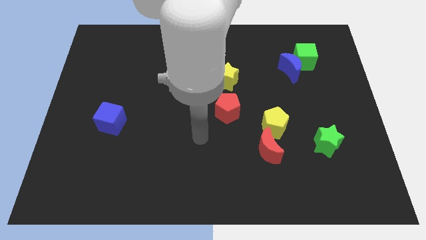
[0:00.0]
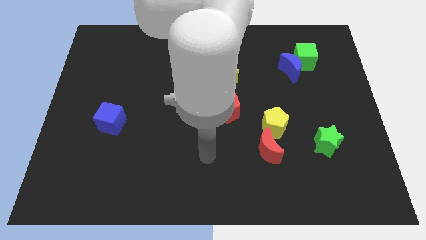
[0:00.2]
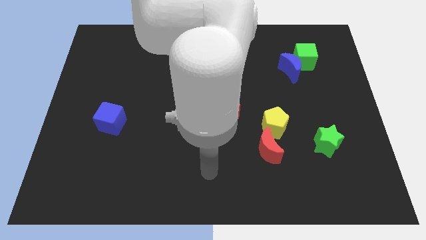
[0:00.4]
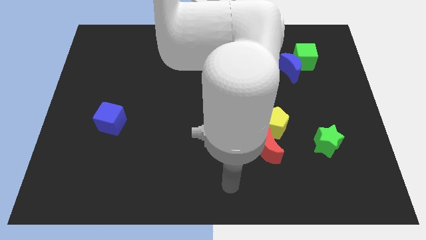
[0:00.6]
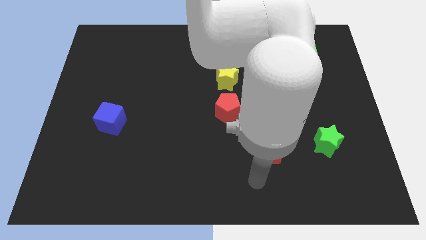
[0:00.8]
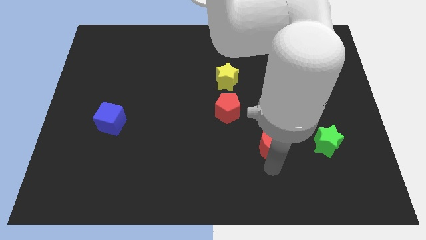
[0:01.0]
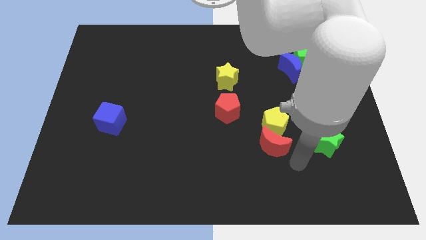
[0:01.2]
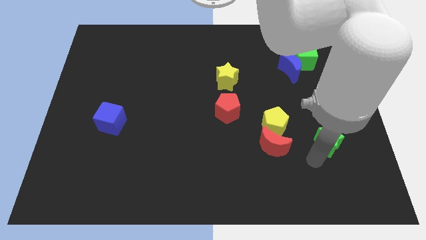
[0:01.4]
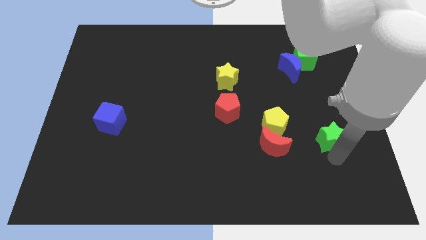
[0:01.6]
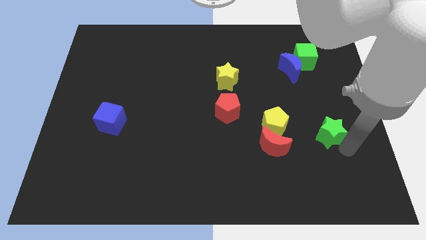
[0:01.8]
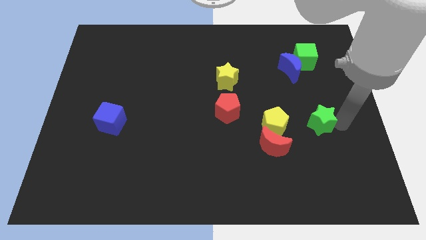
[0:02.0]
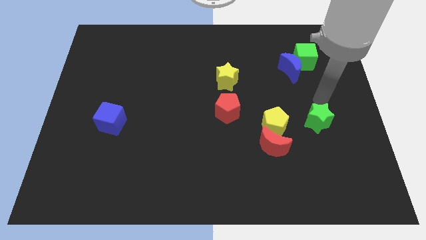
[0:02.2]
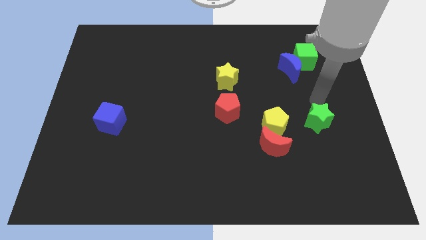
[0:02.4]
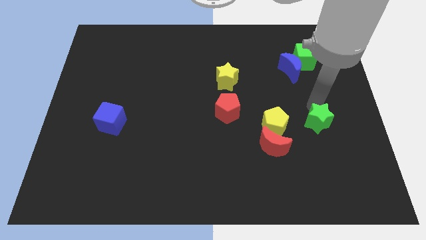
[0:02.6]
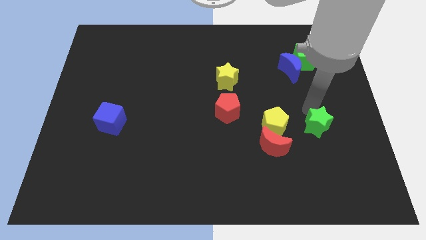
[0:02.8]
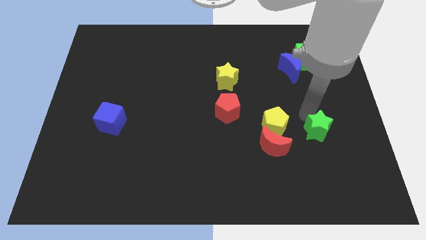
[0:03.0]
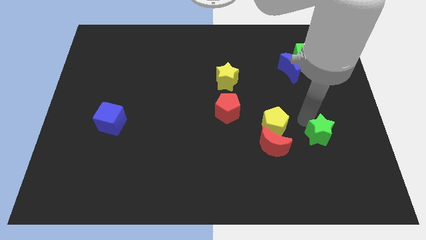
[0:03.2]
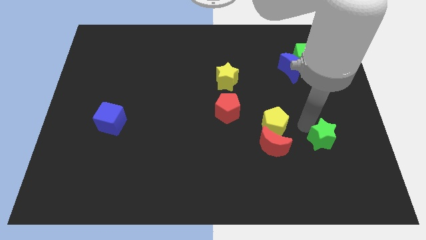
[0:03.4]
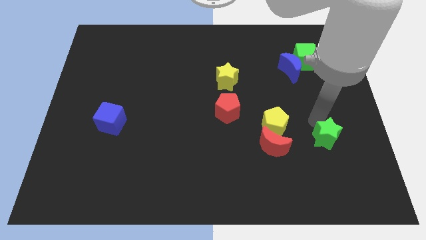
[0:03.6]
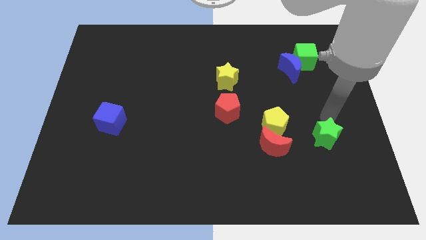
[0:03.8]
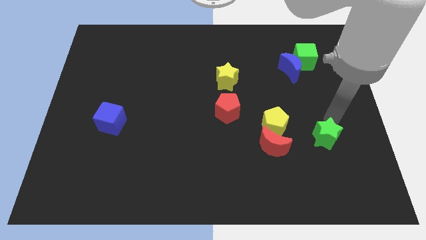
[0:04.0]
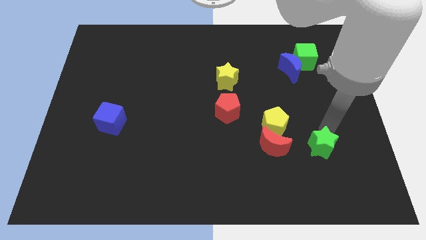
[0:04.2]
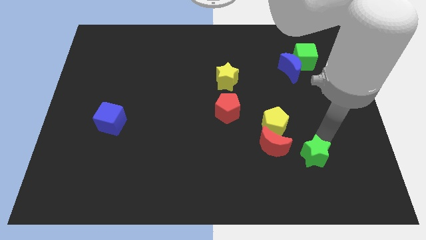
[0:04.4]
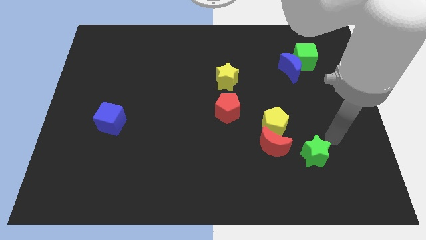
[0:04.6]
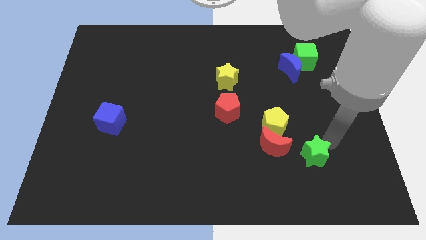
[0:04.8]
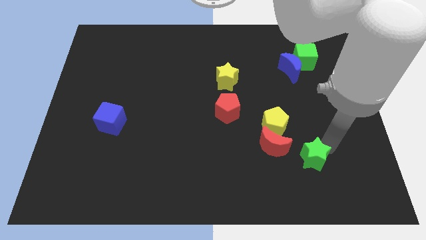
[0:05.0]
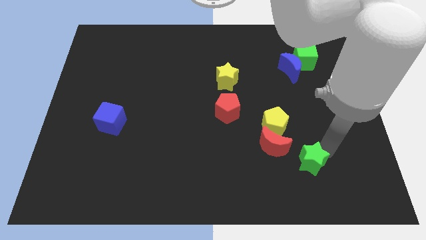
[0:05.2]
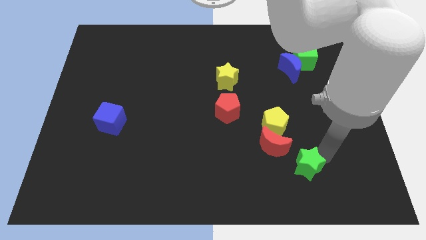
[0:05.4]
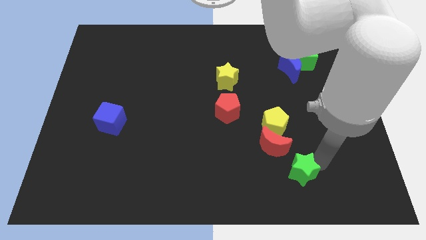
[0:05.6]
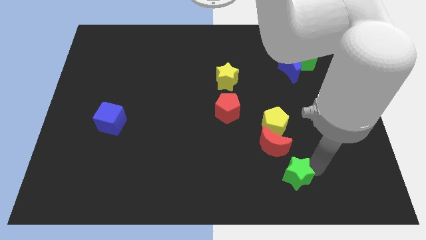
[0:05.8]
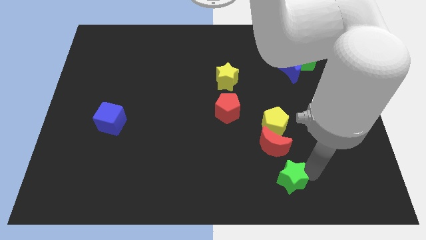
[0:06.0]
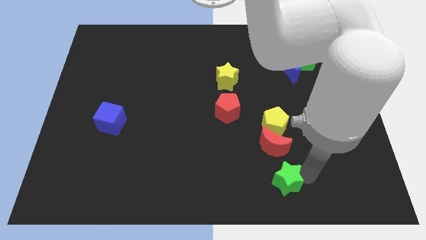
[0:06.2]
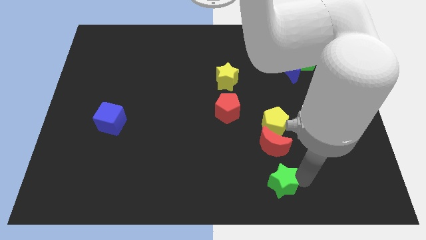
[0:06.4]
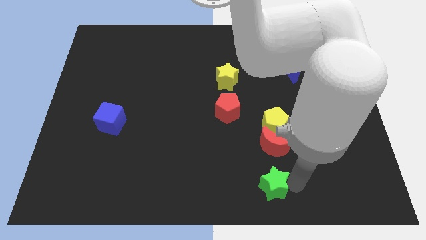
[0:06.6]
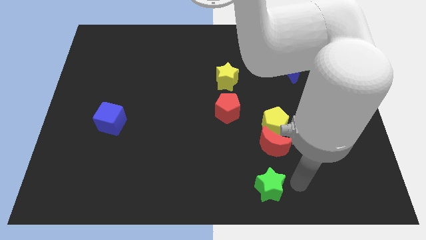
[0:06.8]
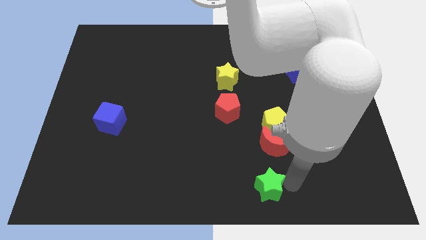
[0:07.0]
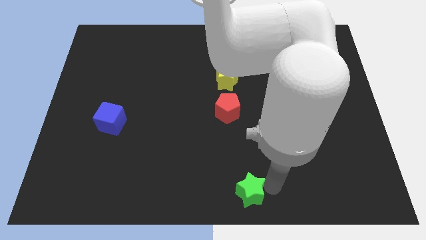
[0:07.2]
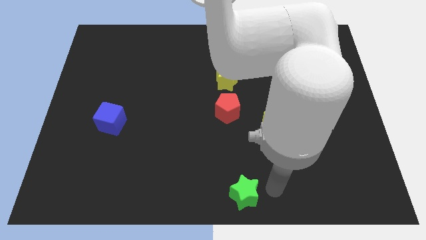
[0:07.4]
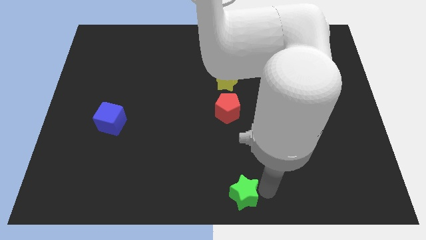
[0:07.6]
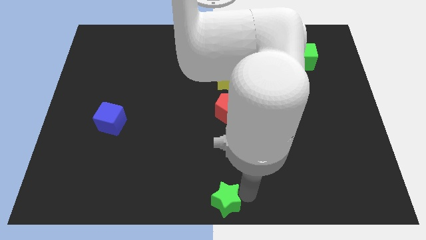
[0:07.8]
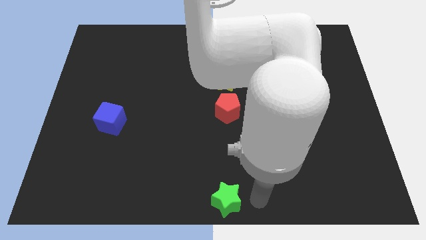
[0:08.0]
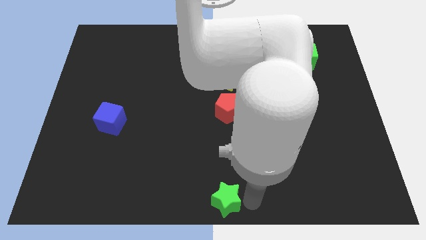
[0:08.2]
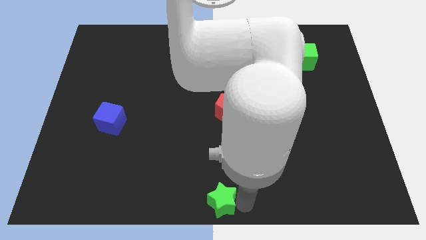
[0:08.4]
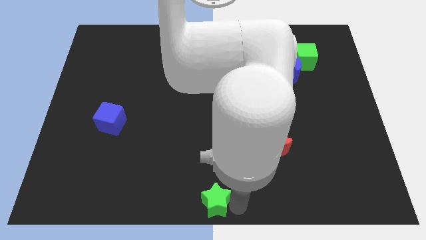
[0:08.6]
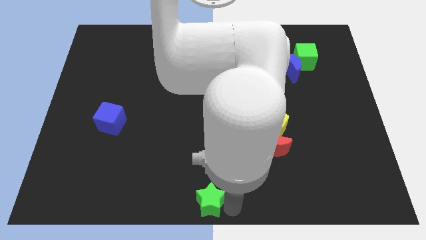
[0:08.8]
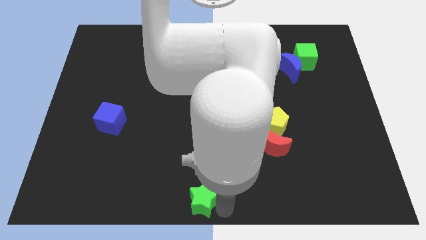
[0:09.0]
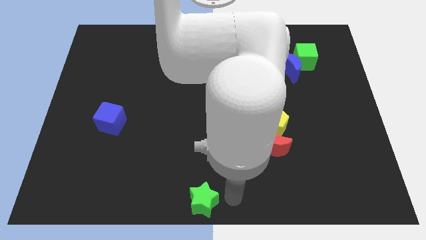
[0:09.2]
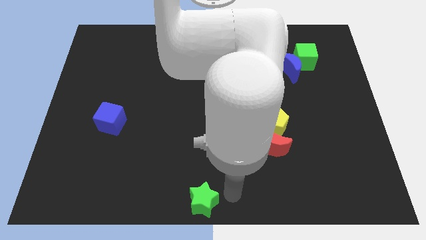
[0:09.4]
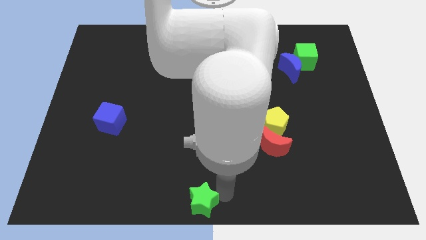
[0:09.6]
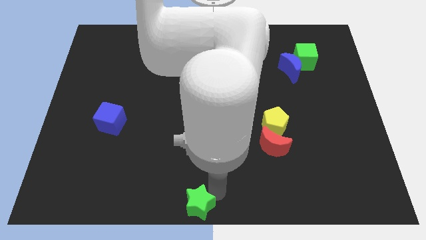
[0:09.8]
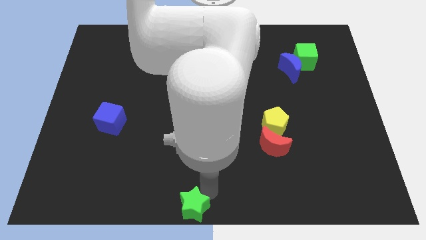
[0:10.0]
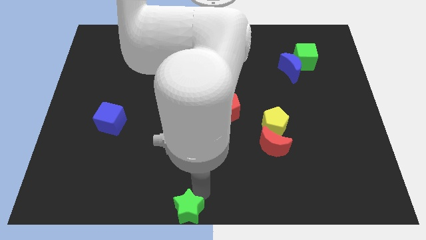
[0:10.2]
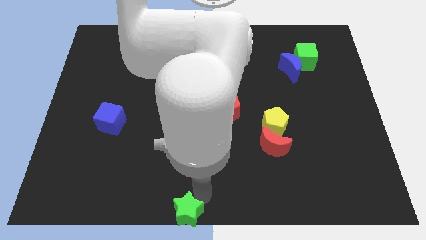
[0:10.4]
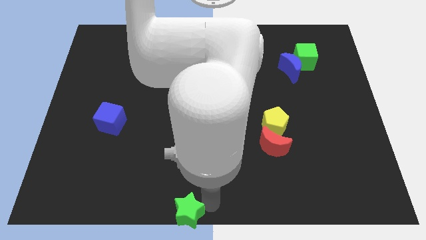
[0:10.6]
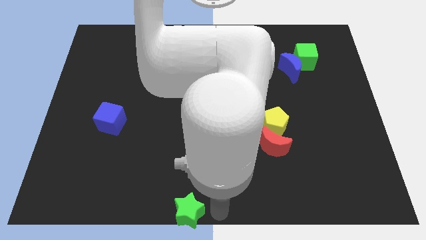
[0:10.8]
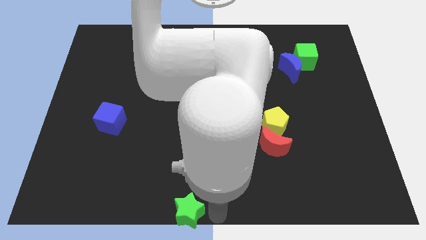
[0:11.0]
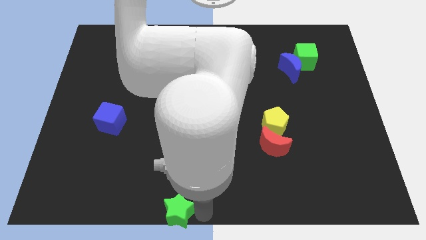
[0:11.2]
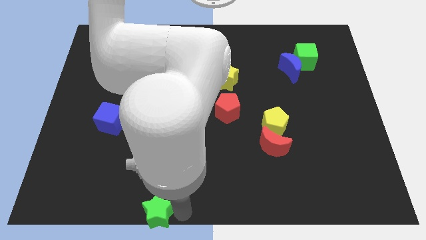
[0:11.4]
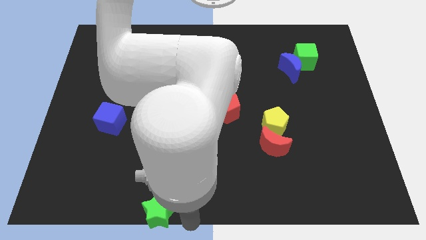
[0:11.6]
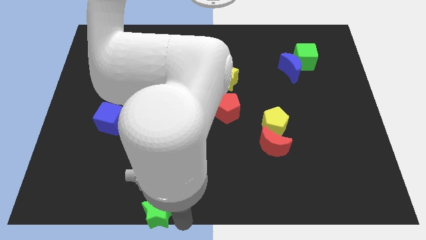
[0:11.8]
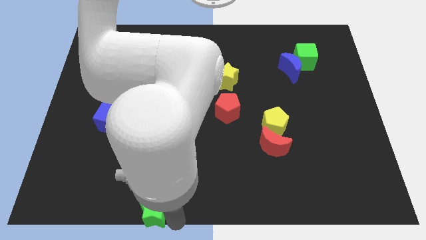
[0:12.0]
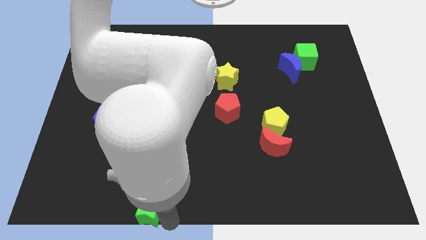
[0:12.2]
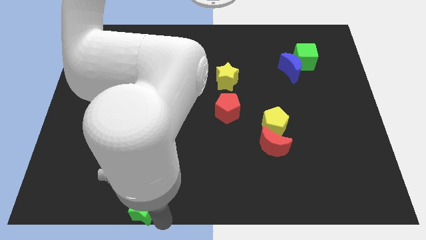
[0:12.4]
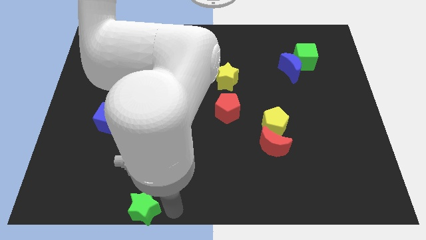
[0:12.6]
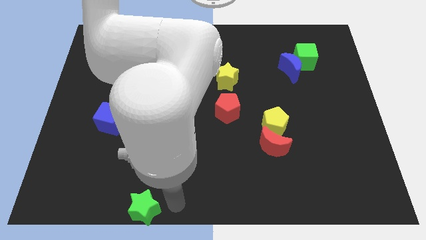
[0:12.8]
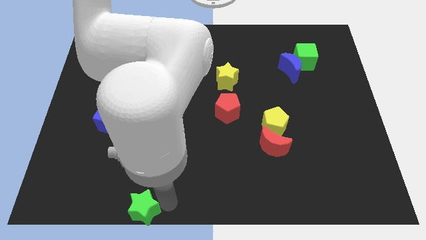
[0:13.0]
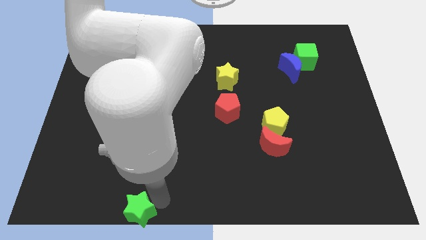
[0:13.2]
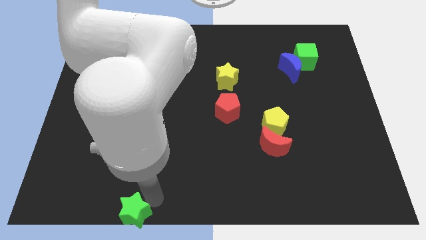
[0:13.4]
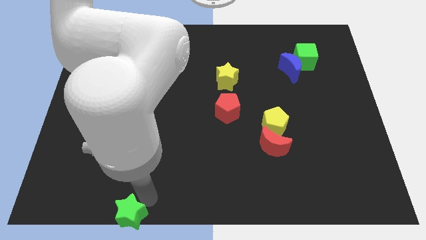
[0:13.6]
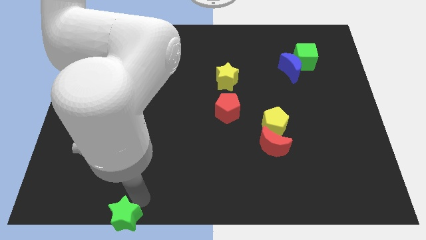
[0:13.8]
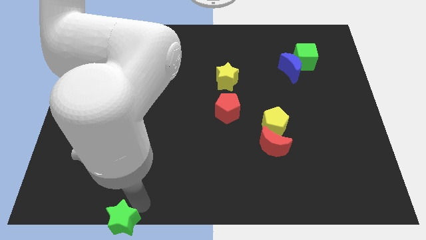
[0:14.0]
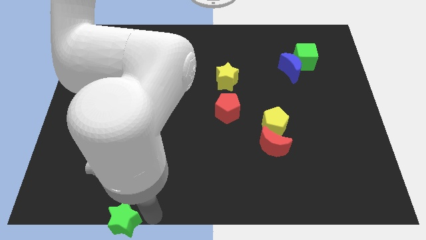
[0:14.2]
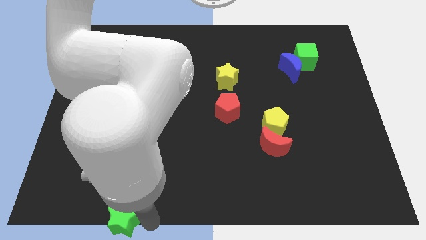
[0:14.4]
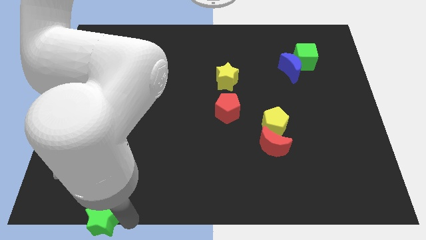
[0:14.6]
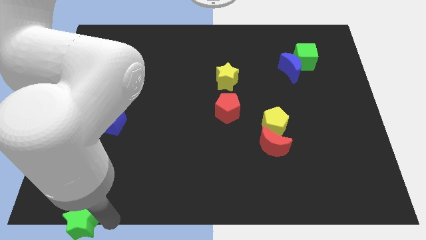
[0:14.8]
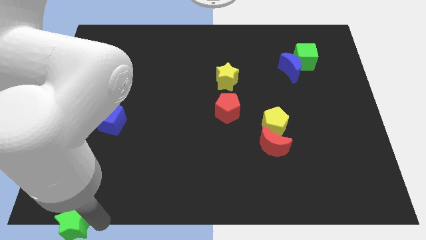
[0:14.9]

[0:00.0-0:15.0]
slide the green star to the bottom left corner
